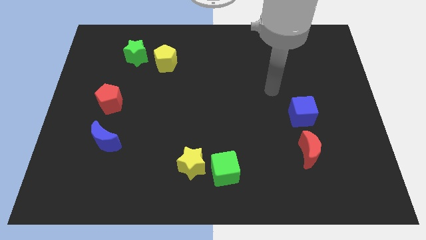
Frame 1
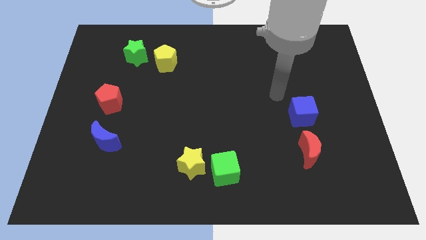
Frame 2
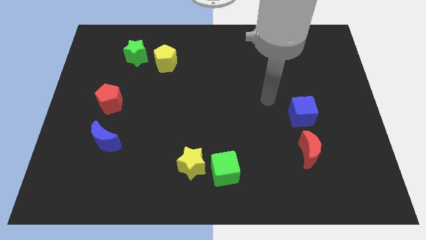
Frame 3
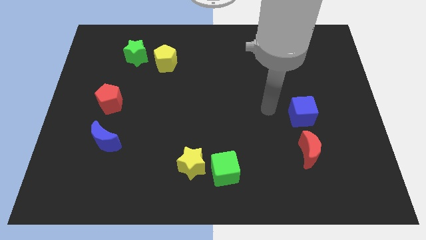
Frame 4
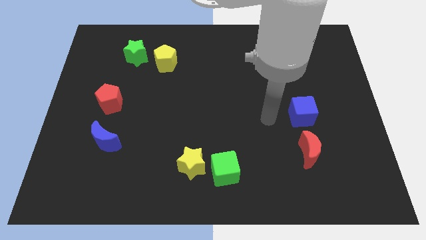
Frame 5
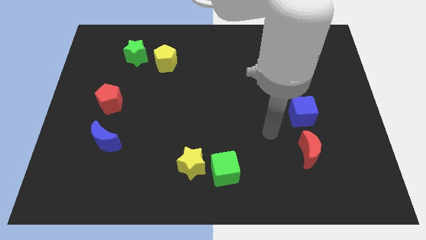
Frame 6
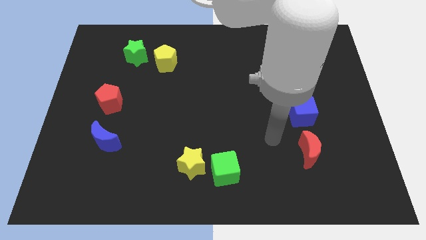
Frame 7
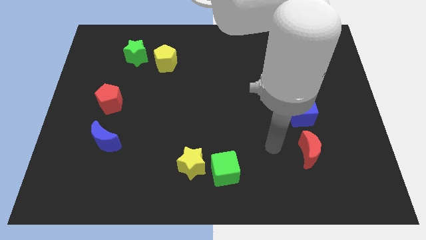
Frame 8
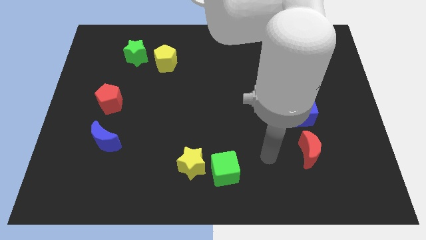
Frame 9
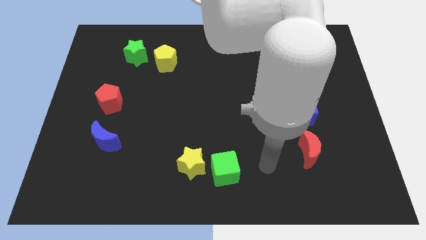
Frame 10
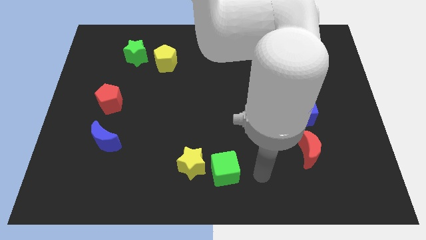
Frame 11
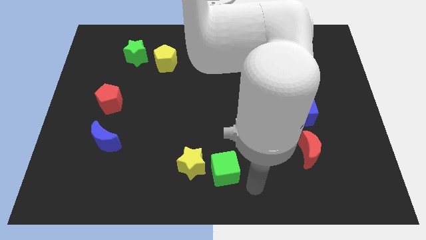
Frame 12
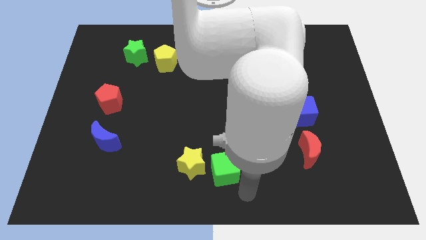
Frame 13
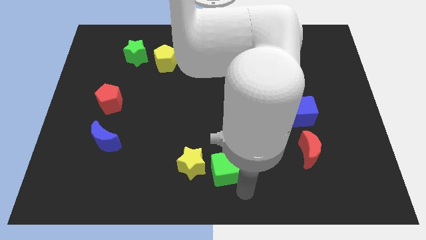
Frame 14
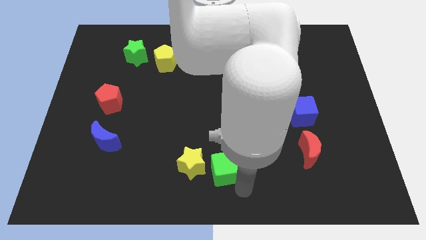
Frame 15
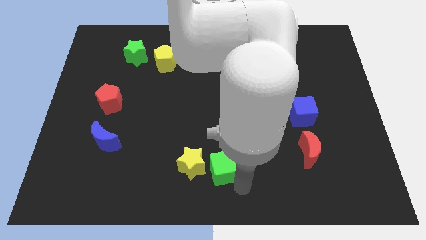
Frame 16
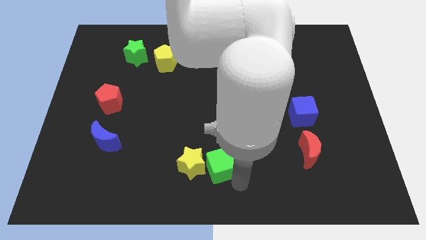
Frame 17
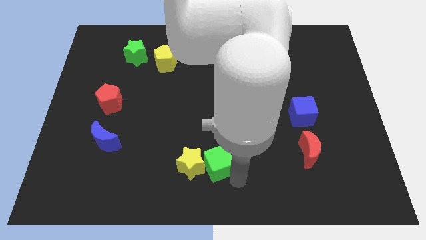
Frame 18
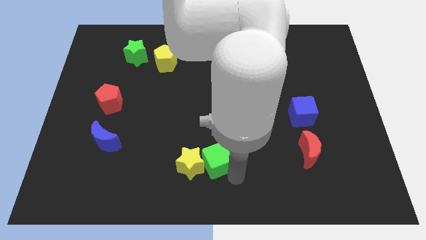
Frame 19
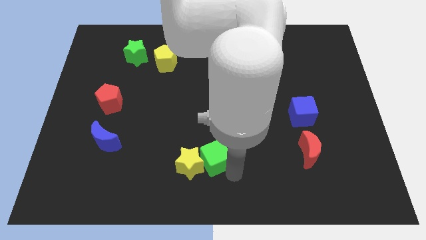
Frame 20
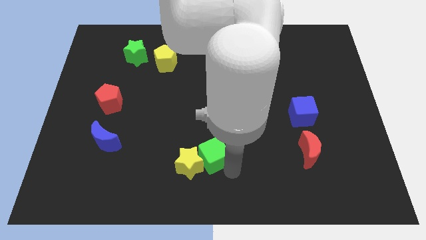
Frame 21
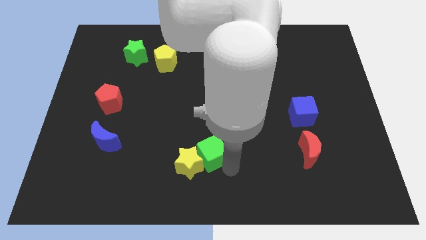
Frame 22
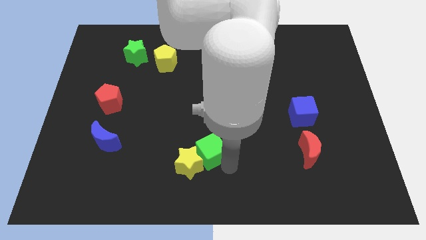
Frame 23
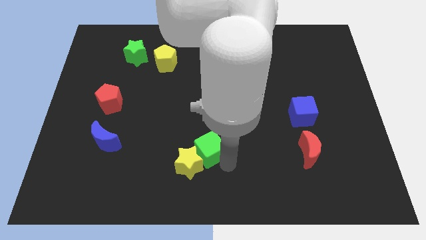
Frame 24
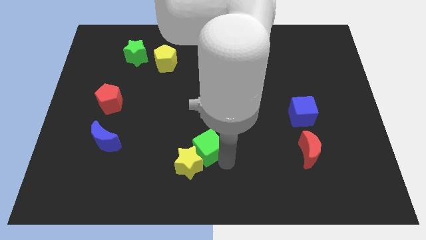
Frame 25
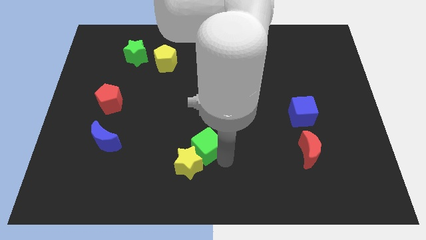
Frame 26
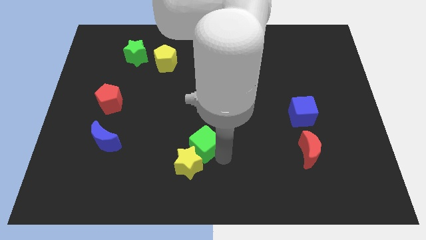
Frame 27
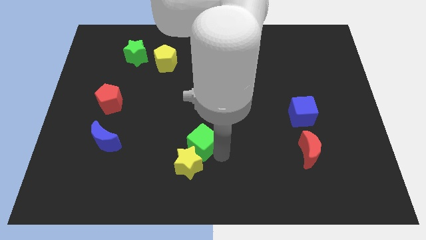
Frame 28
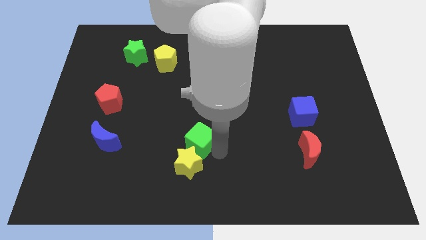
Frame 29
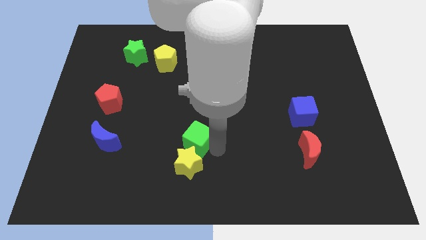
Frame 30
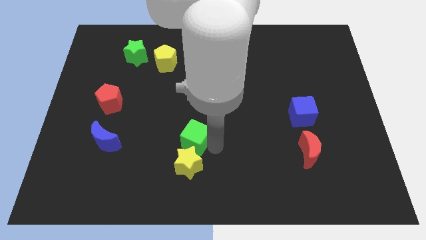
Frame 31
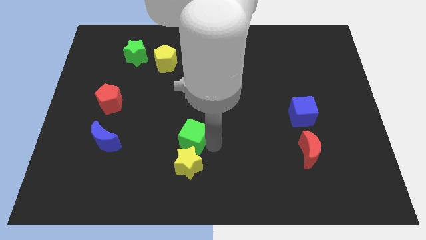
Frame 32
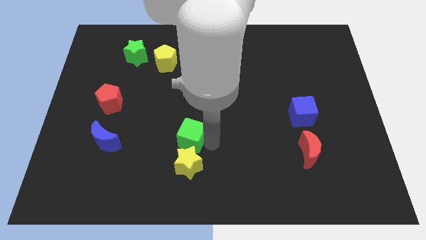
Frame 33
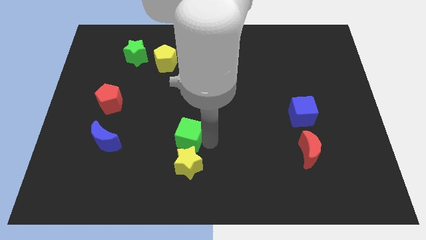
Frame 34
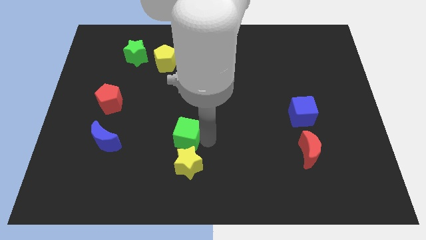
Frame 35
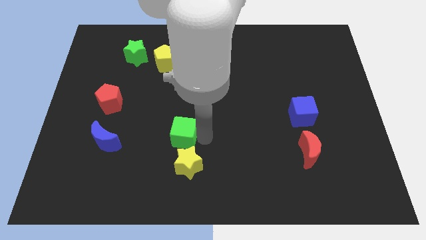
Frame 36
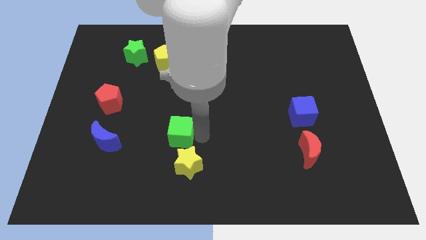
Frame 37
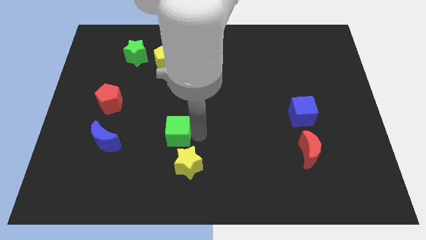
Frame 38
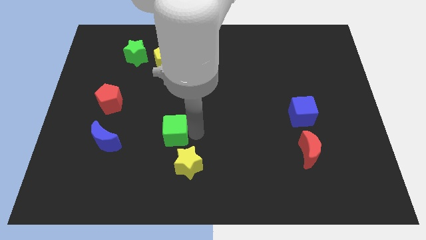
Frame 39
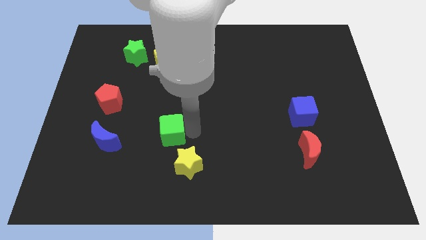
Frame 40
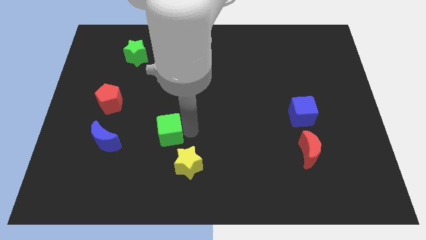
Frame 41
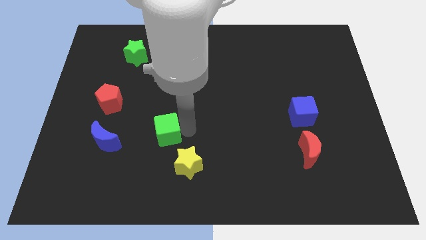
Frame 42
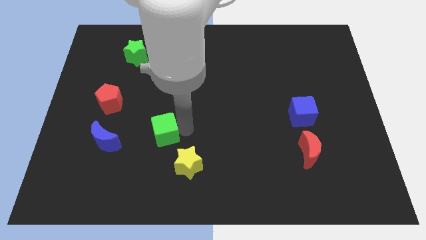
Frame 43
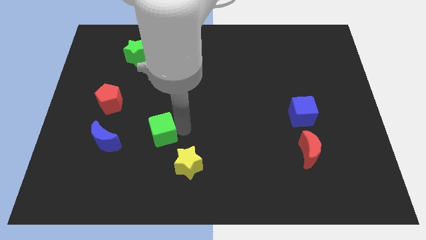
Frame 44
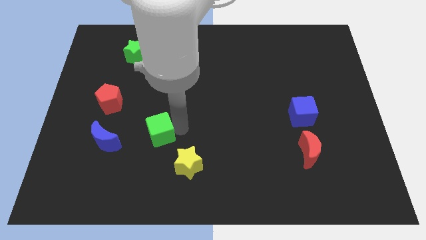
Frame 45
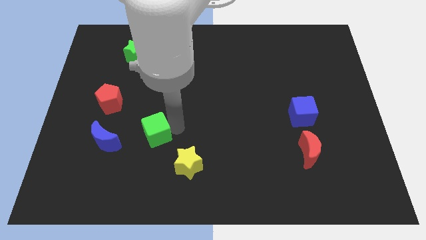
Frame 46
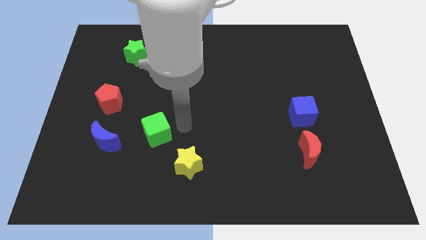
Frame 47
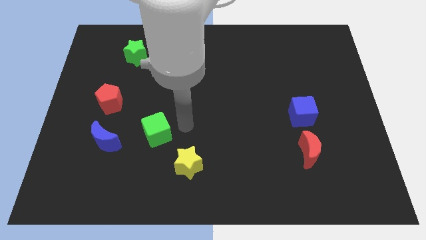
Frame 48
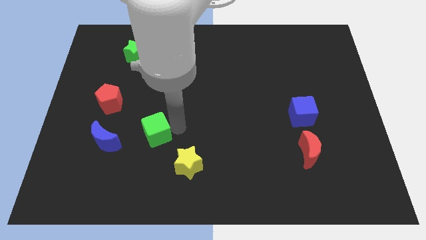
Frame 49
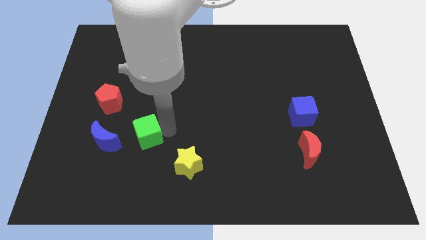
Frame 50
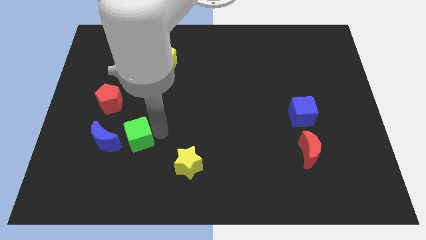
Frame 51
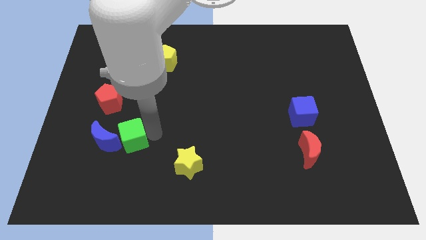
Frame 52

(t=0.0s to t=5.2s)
push the green cube next to the blue moon

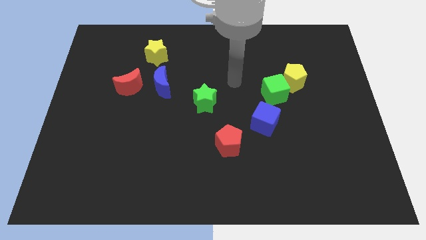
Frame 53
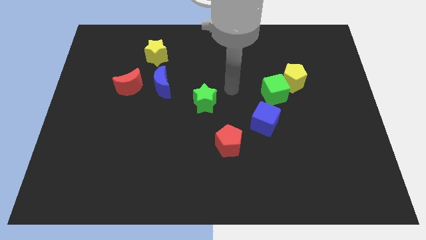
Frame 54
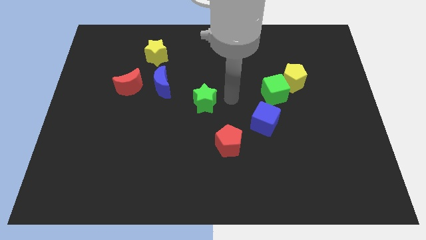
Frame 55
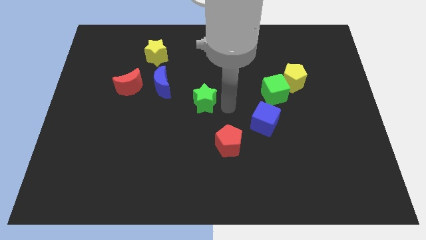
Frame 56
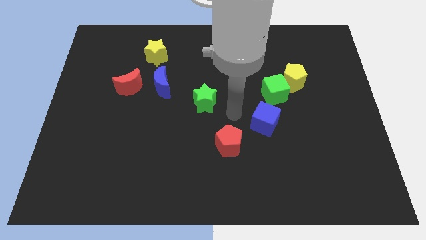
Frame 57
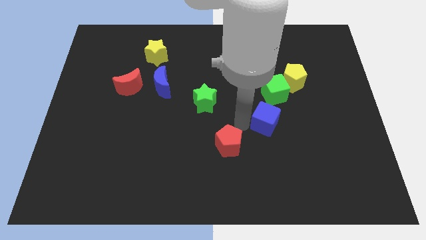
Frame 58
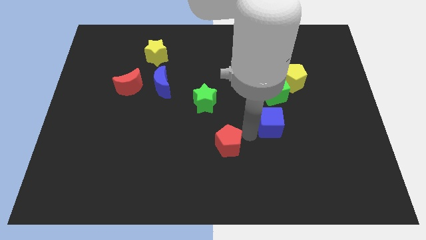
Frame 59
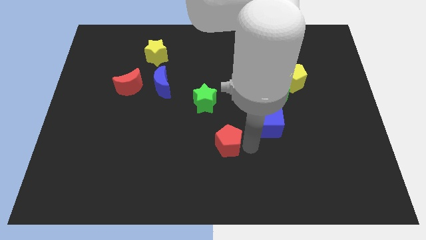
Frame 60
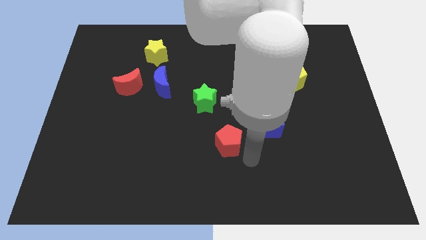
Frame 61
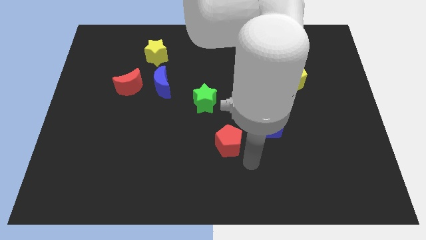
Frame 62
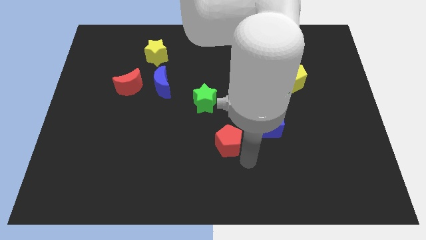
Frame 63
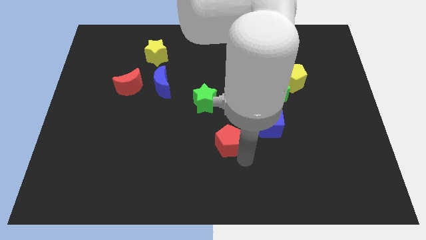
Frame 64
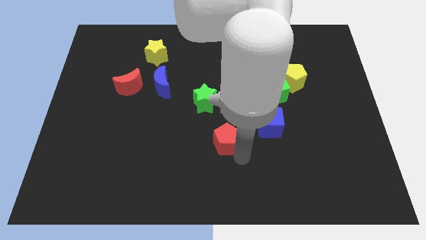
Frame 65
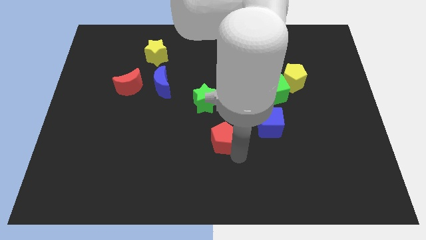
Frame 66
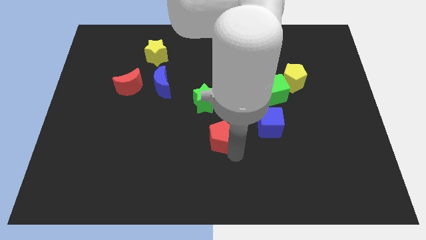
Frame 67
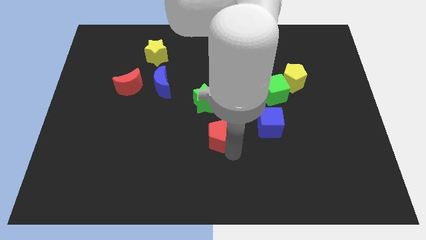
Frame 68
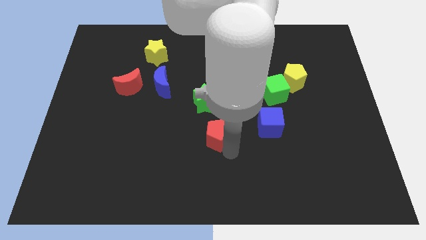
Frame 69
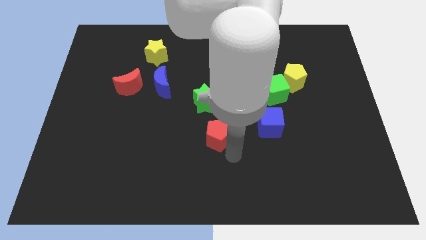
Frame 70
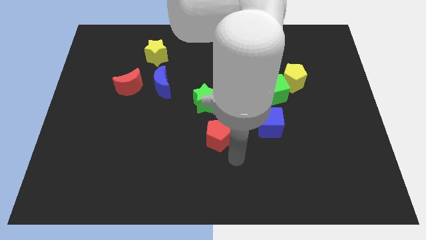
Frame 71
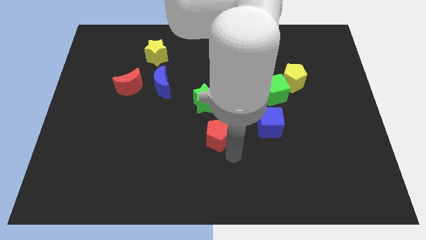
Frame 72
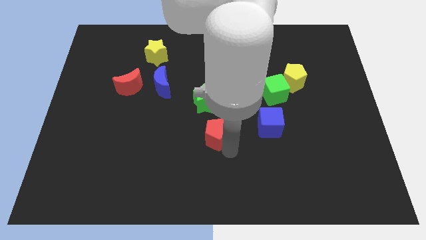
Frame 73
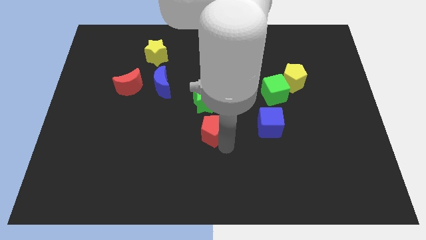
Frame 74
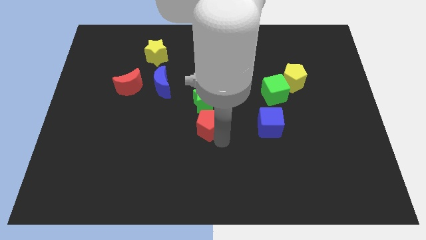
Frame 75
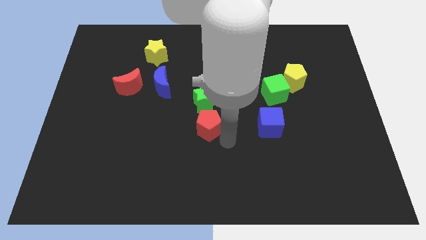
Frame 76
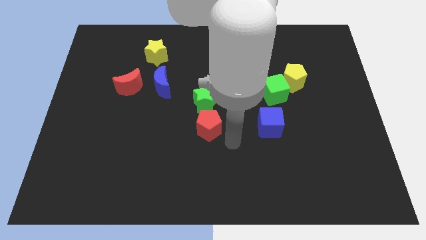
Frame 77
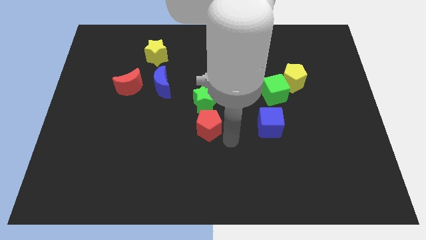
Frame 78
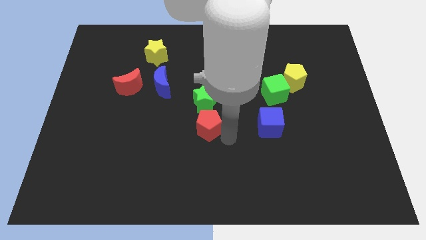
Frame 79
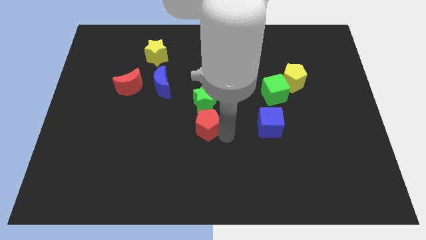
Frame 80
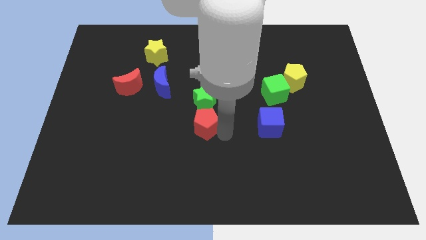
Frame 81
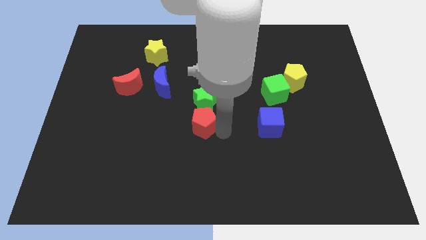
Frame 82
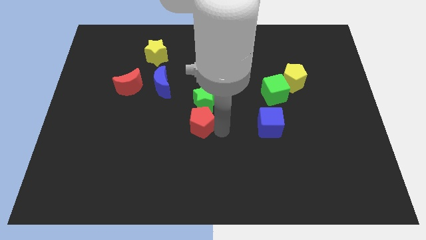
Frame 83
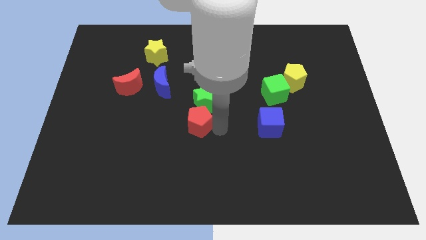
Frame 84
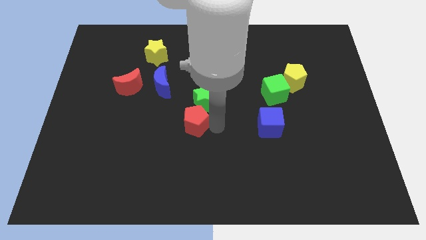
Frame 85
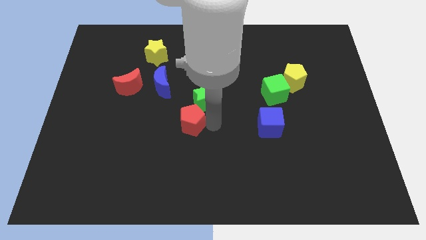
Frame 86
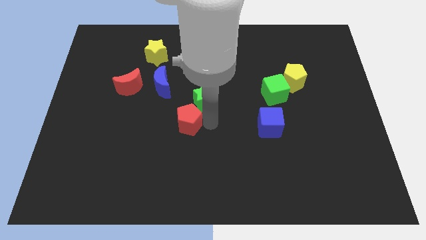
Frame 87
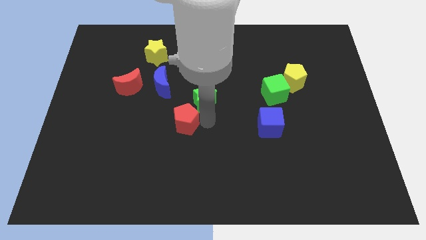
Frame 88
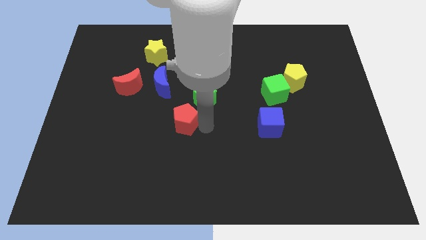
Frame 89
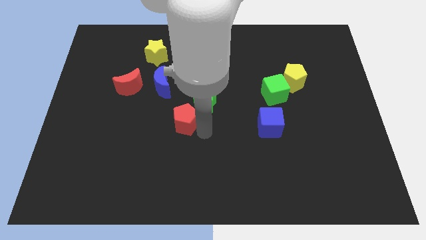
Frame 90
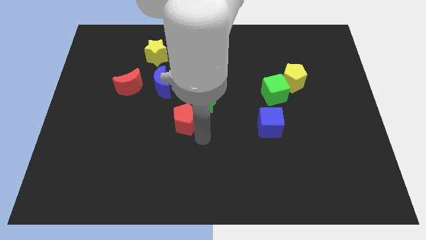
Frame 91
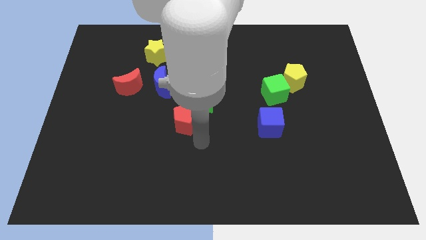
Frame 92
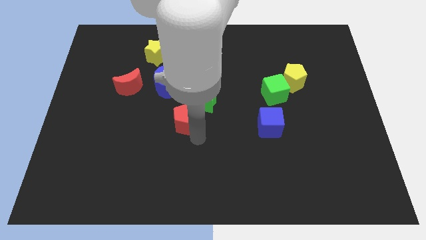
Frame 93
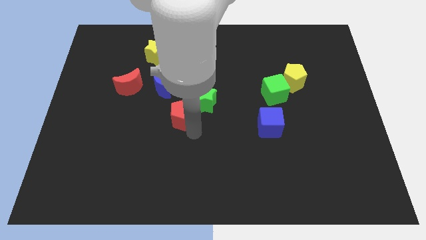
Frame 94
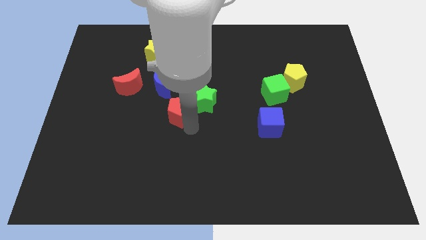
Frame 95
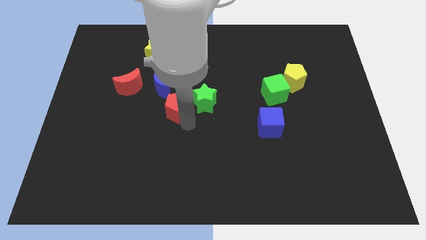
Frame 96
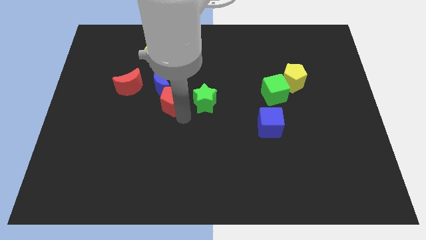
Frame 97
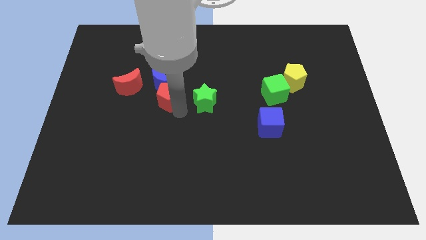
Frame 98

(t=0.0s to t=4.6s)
put the red pentagon to the blue moon
